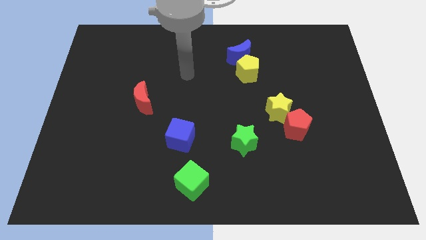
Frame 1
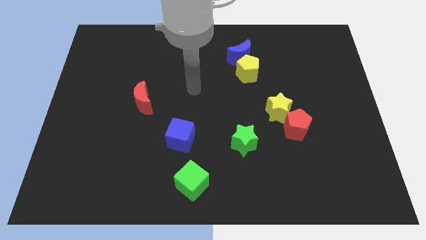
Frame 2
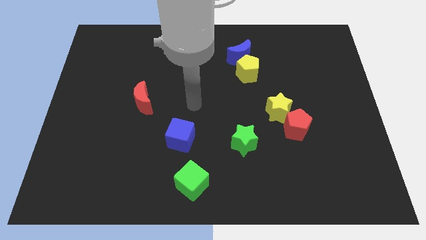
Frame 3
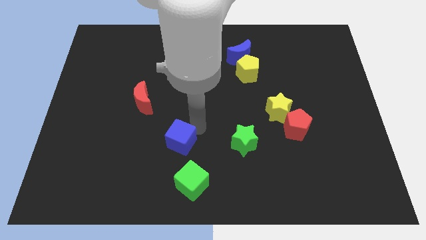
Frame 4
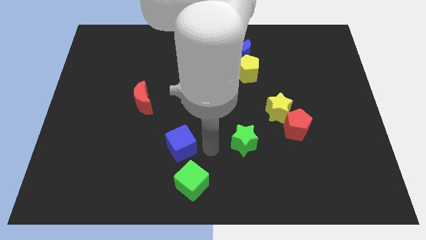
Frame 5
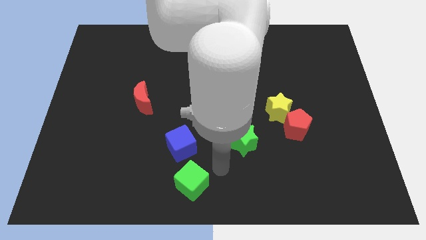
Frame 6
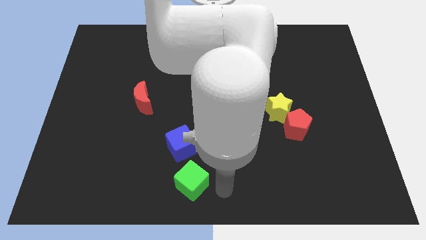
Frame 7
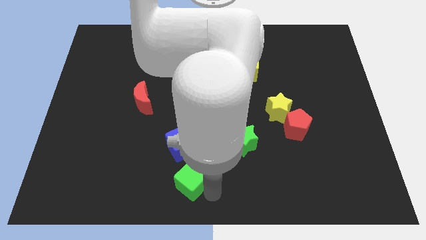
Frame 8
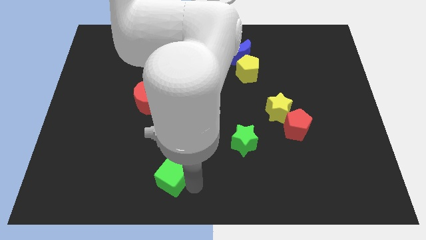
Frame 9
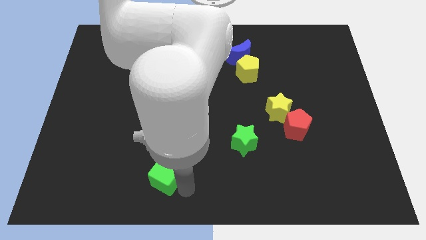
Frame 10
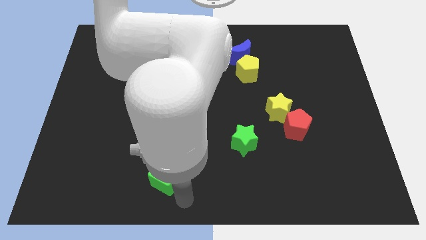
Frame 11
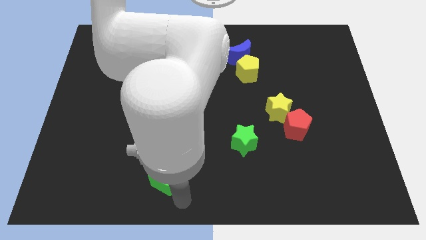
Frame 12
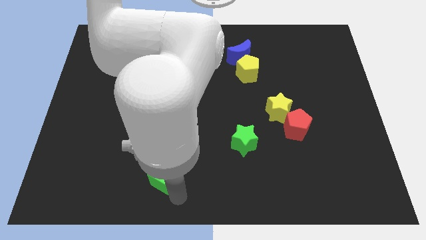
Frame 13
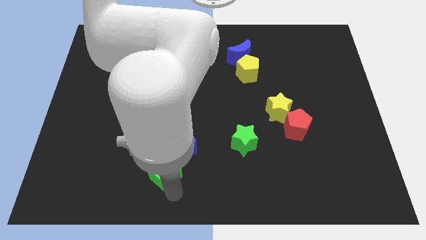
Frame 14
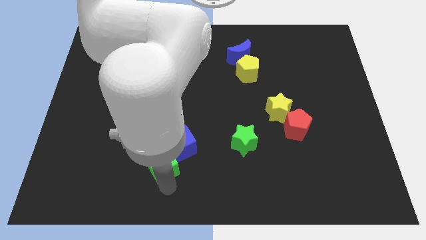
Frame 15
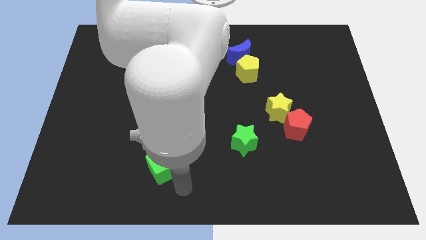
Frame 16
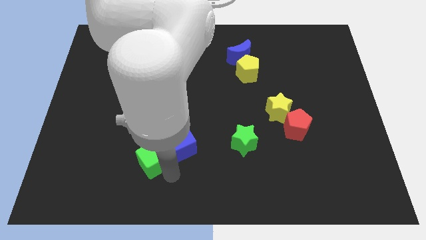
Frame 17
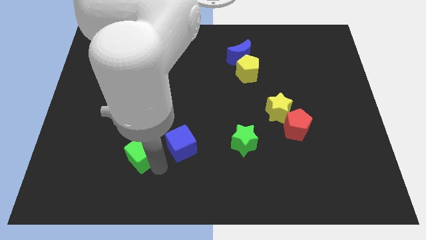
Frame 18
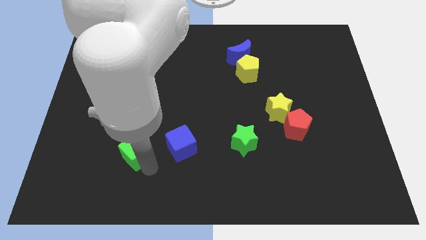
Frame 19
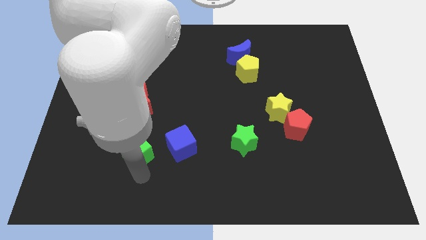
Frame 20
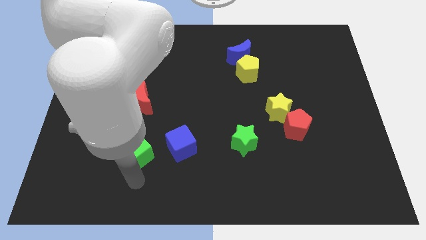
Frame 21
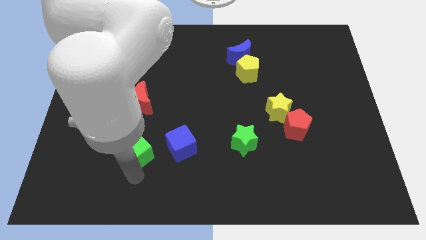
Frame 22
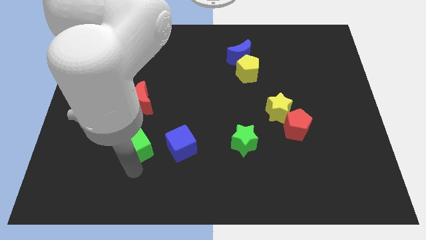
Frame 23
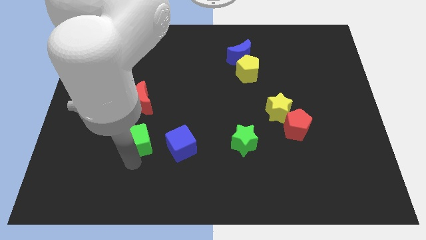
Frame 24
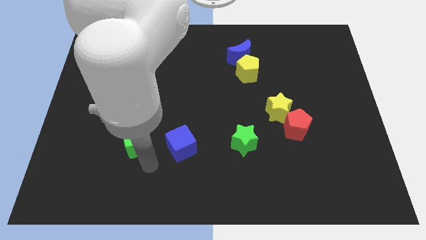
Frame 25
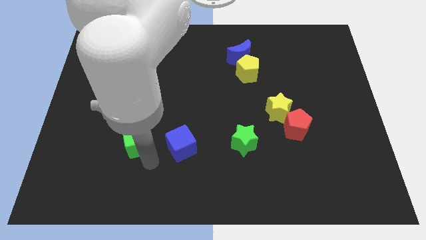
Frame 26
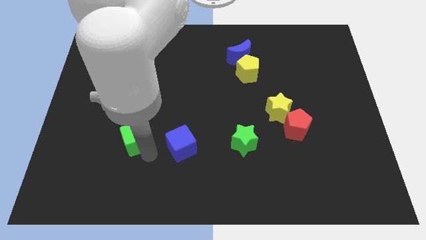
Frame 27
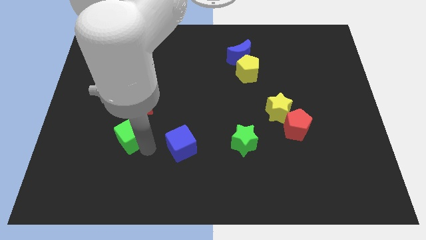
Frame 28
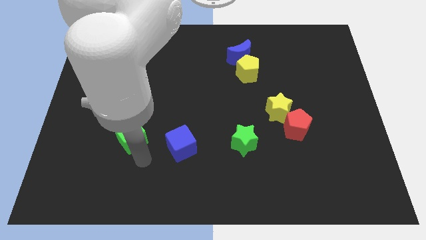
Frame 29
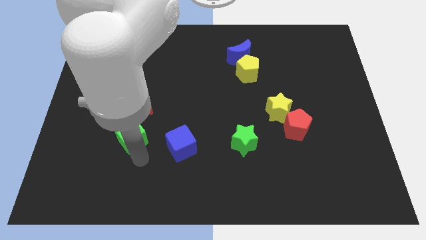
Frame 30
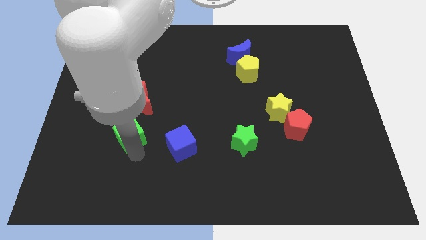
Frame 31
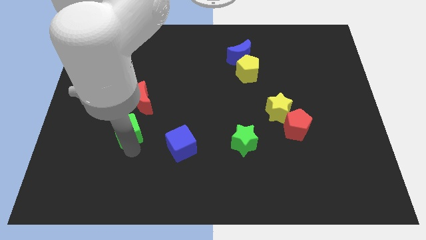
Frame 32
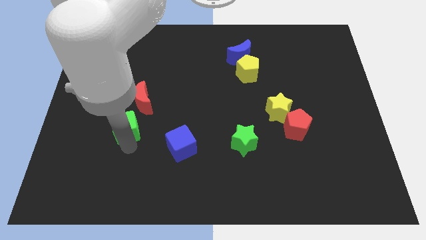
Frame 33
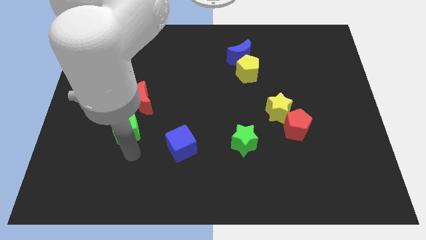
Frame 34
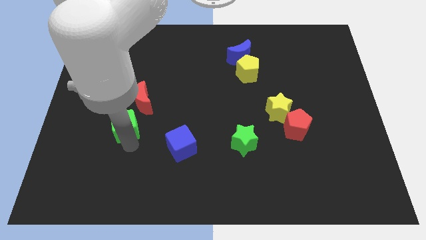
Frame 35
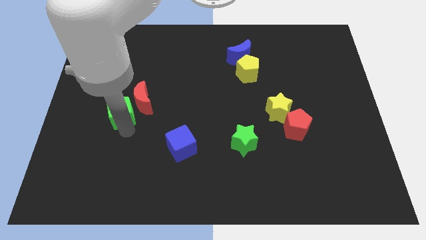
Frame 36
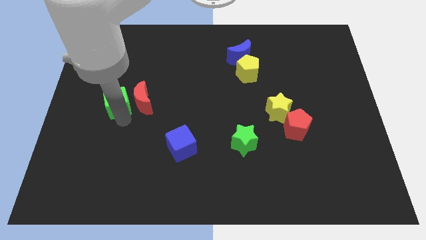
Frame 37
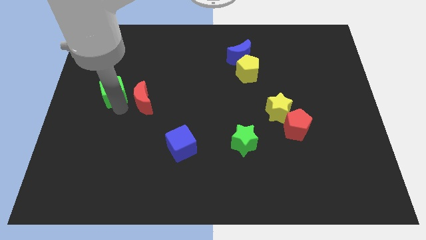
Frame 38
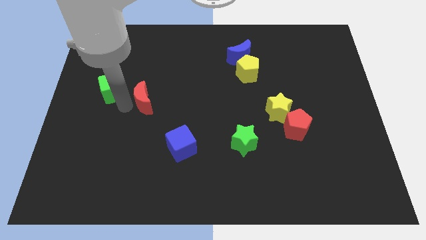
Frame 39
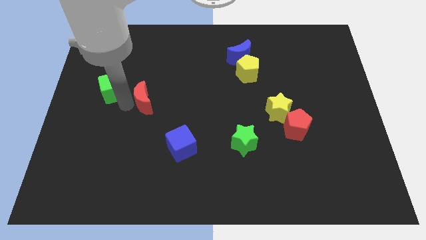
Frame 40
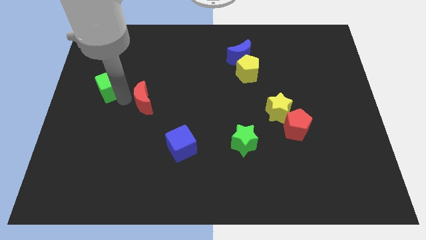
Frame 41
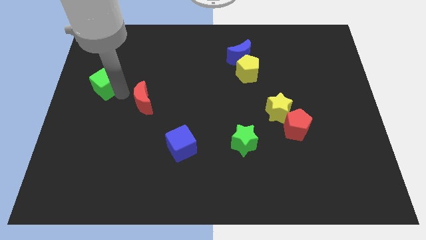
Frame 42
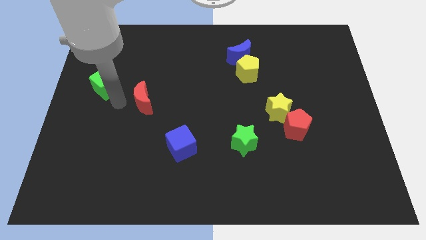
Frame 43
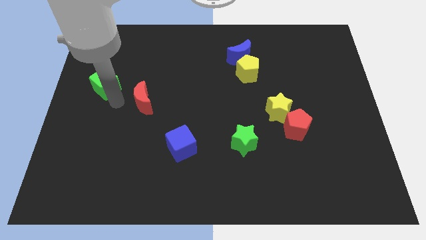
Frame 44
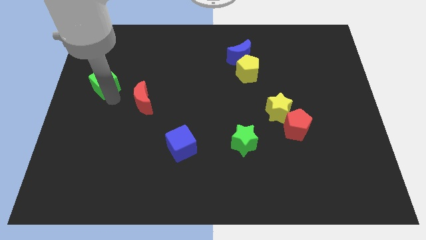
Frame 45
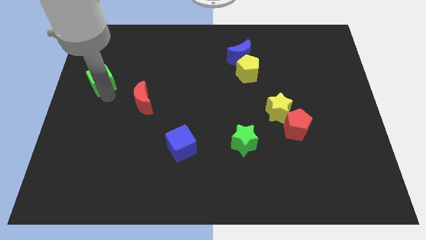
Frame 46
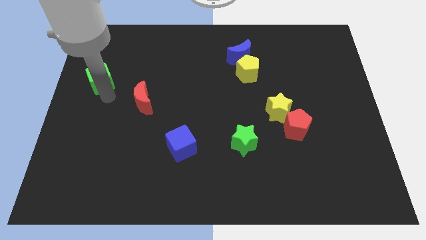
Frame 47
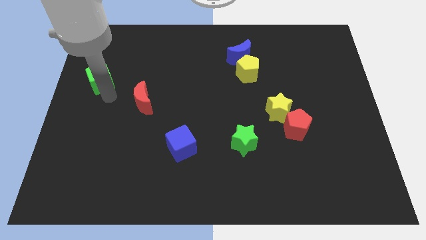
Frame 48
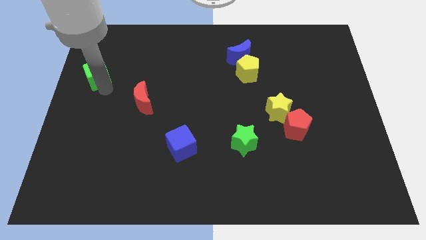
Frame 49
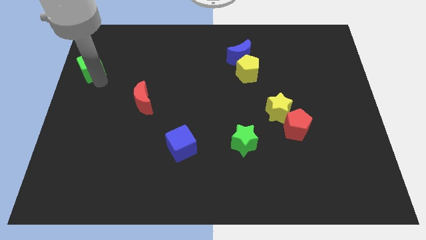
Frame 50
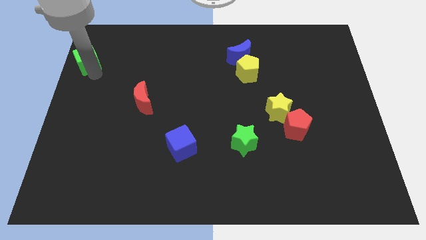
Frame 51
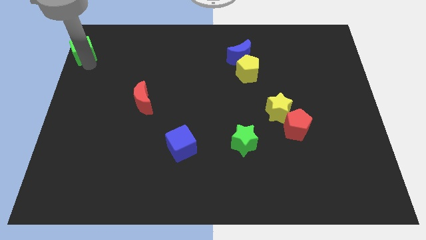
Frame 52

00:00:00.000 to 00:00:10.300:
slide the green cube to the upper left corner

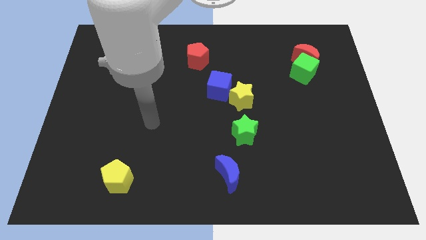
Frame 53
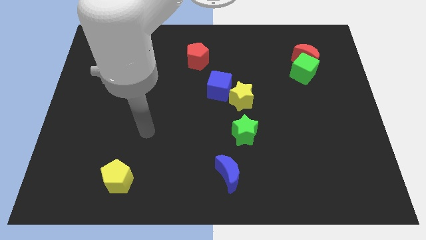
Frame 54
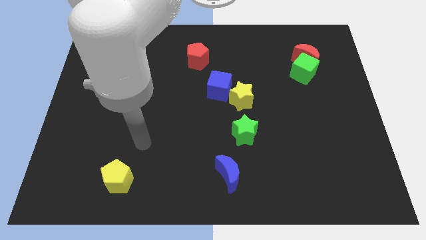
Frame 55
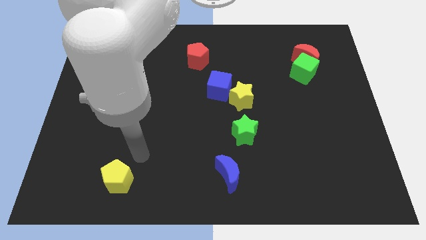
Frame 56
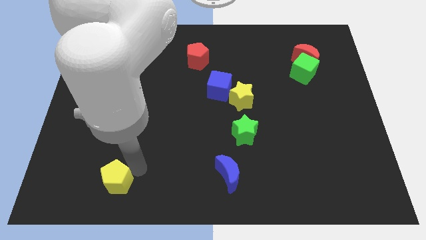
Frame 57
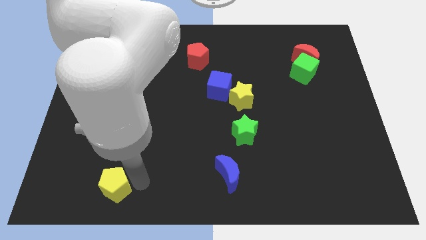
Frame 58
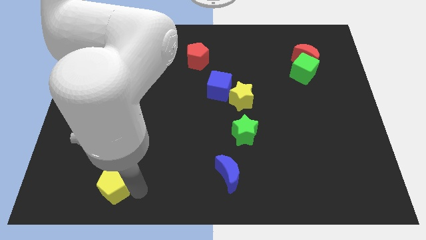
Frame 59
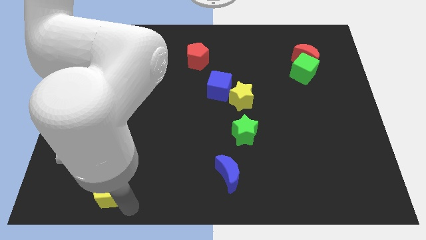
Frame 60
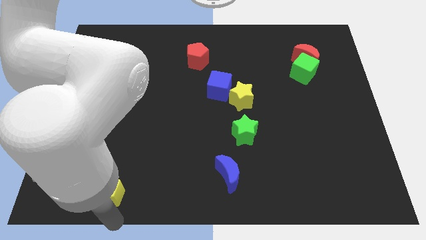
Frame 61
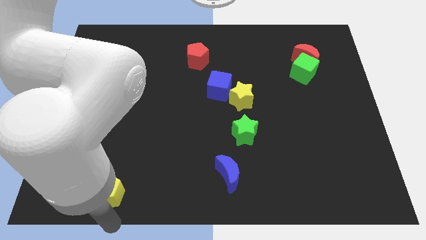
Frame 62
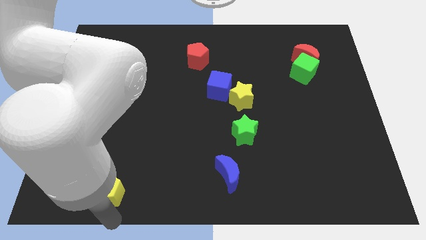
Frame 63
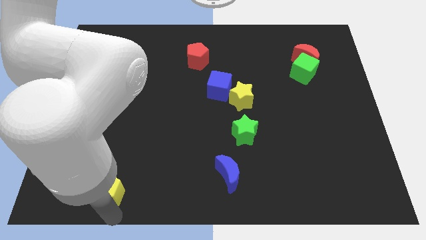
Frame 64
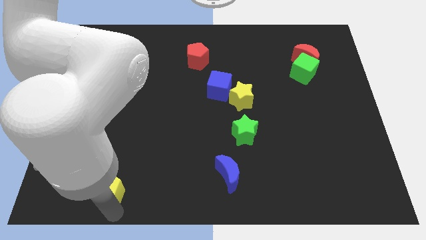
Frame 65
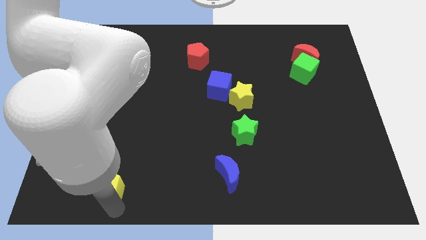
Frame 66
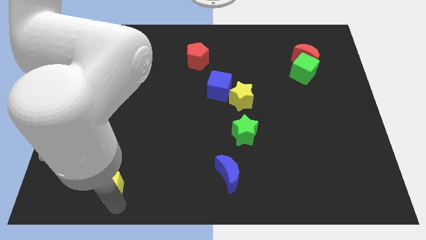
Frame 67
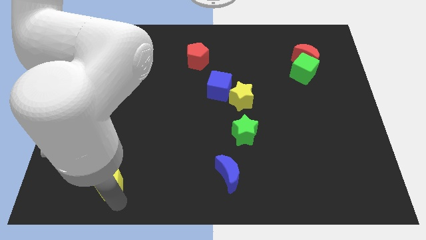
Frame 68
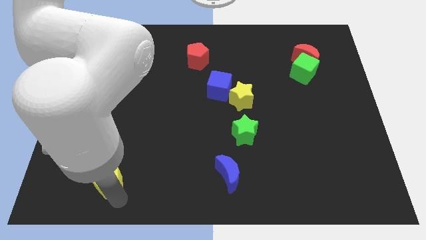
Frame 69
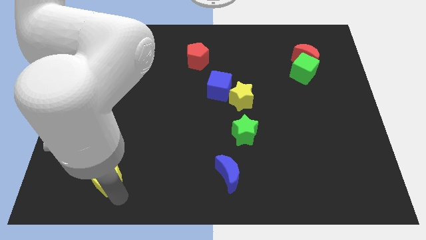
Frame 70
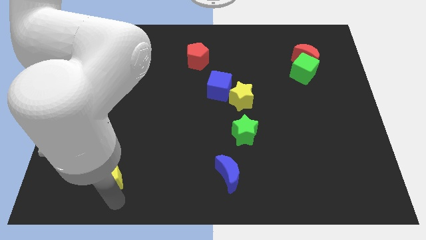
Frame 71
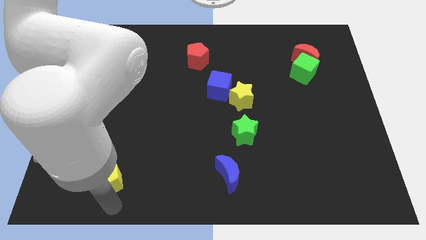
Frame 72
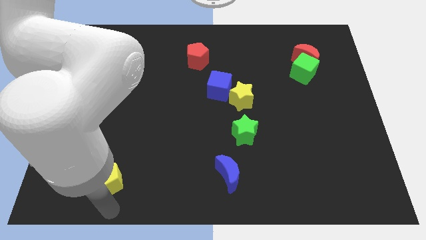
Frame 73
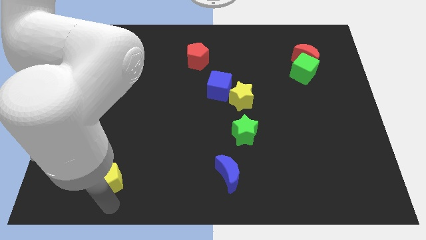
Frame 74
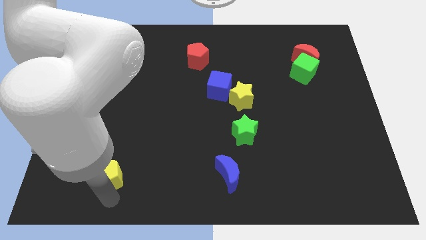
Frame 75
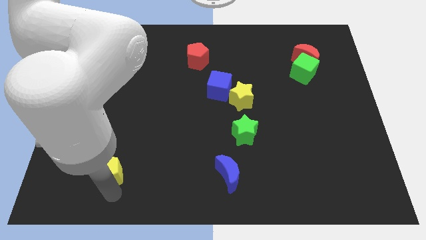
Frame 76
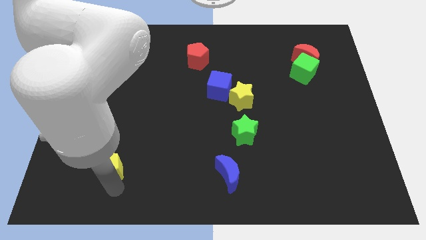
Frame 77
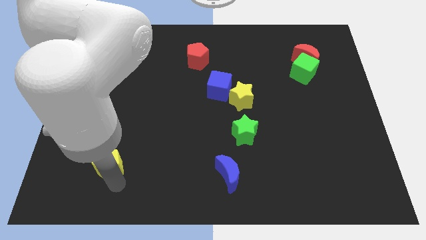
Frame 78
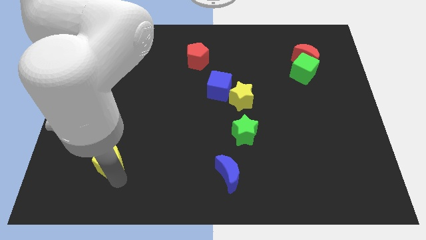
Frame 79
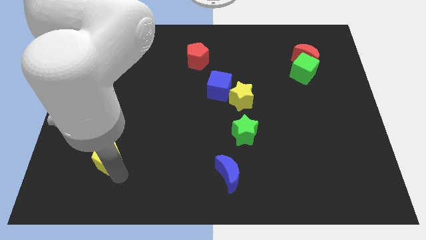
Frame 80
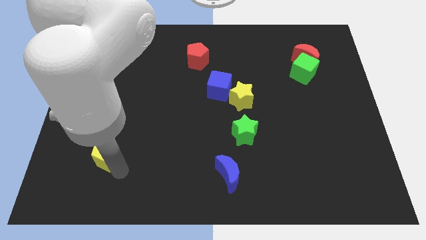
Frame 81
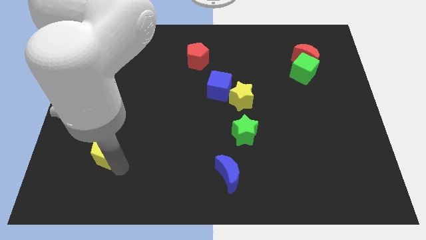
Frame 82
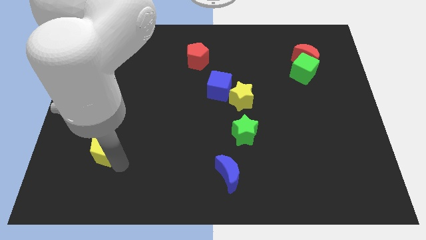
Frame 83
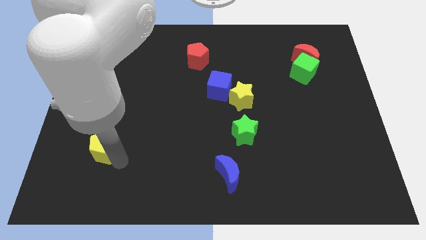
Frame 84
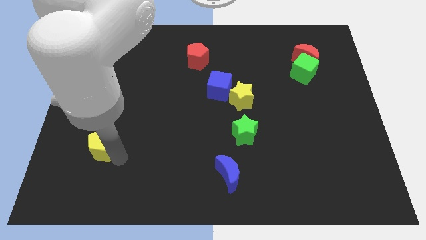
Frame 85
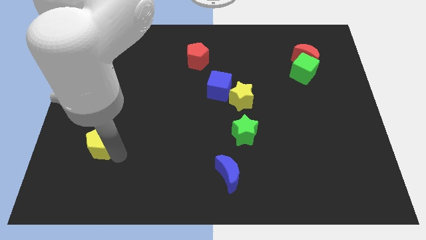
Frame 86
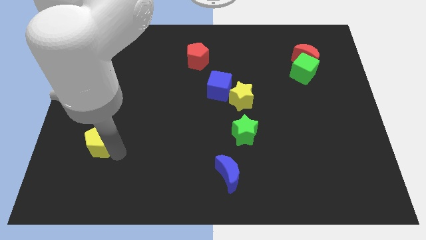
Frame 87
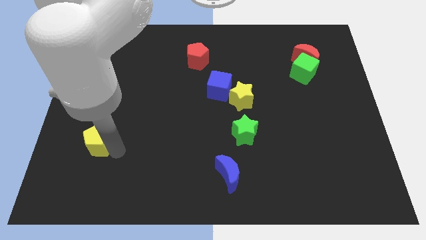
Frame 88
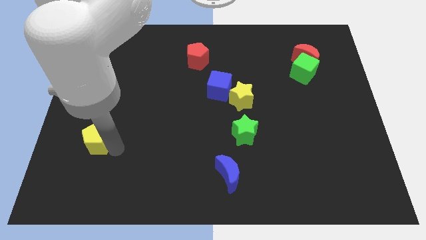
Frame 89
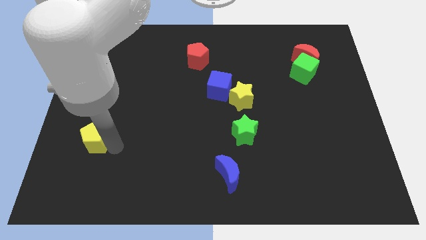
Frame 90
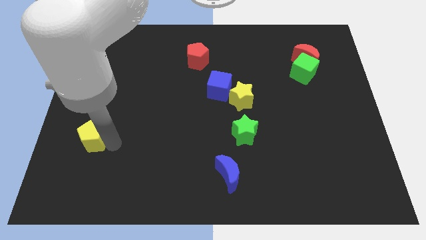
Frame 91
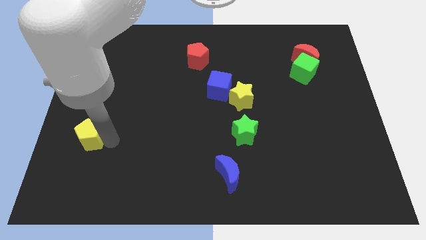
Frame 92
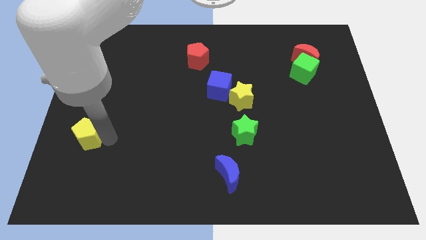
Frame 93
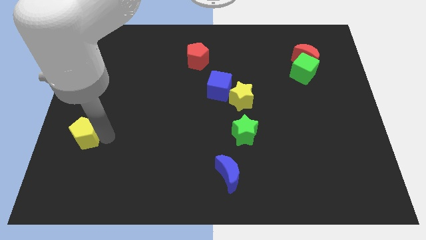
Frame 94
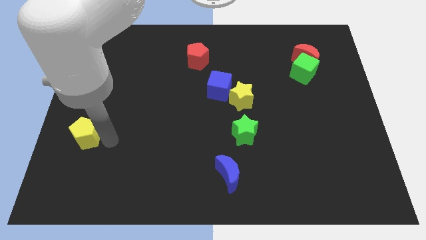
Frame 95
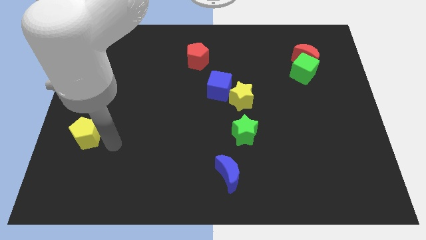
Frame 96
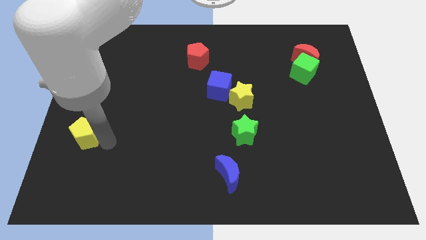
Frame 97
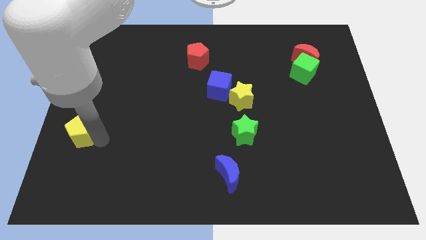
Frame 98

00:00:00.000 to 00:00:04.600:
move the yellow pentagon to the left side of the board
